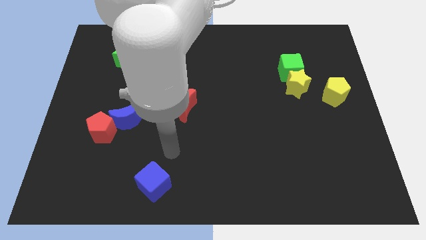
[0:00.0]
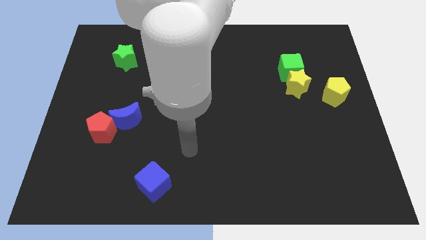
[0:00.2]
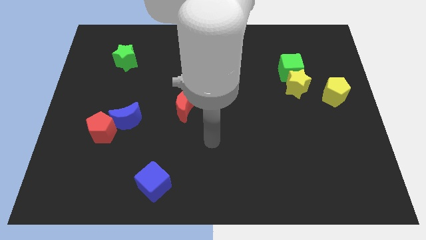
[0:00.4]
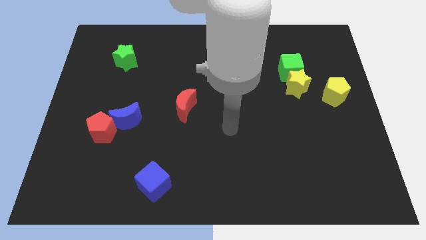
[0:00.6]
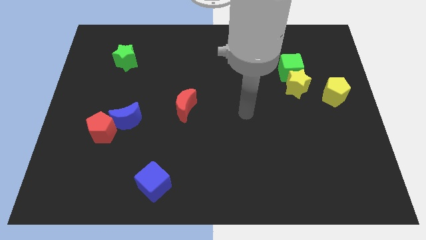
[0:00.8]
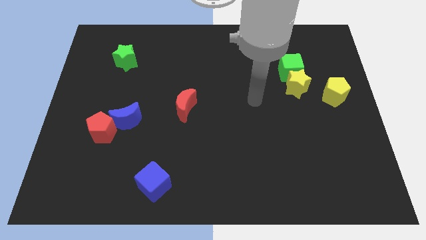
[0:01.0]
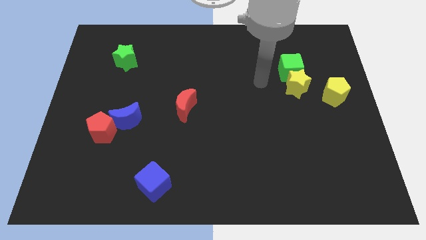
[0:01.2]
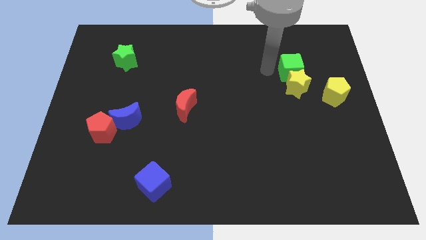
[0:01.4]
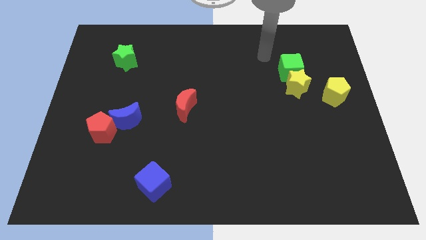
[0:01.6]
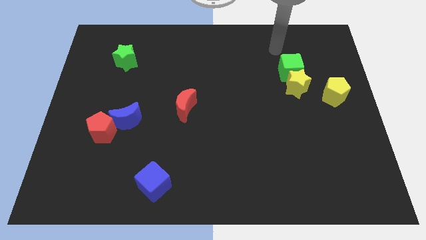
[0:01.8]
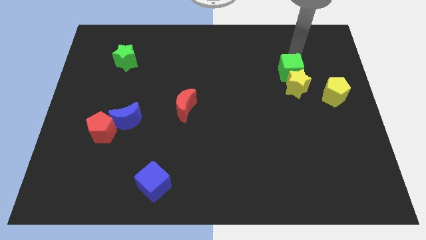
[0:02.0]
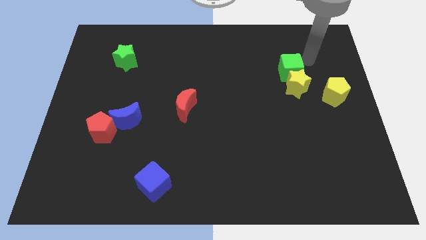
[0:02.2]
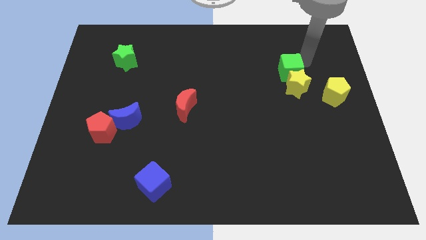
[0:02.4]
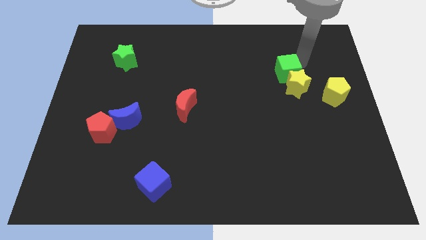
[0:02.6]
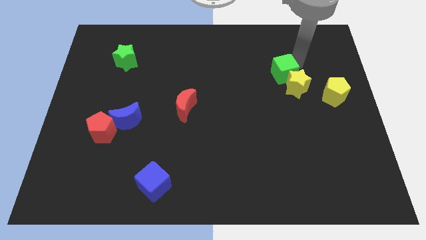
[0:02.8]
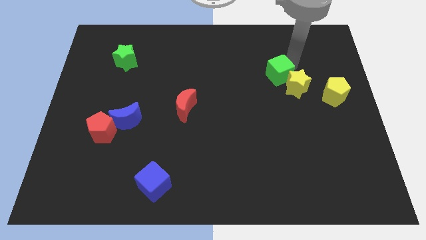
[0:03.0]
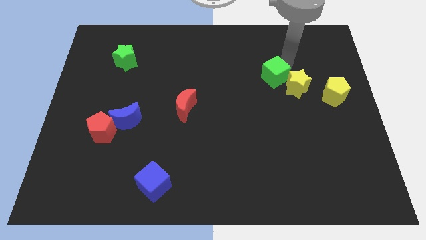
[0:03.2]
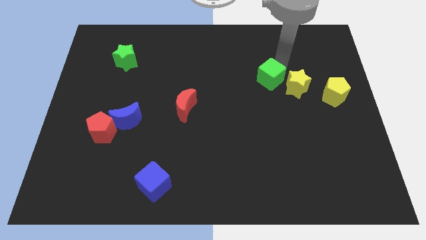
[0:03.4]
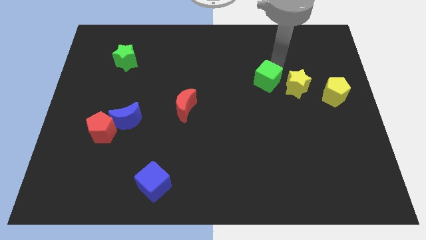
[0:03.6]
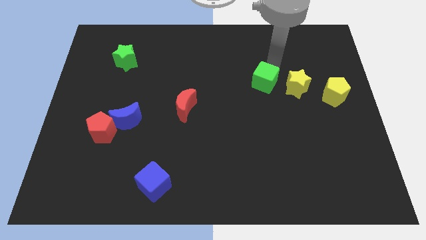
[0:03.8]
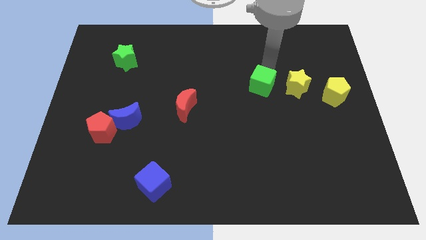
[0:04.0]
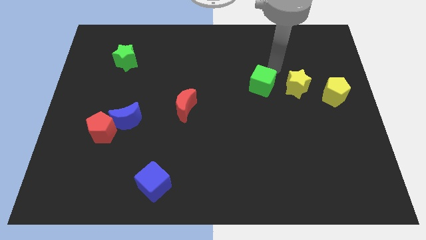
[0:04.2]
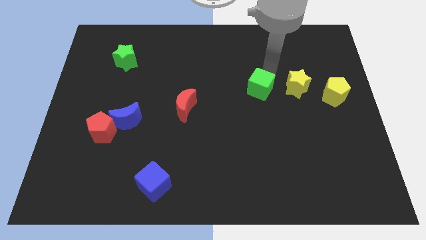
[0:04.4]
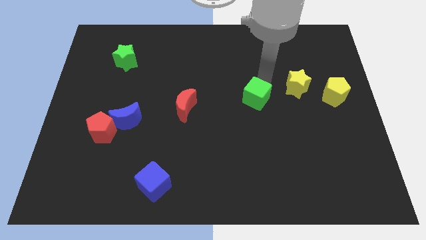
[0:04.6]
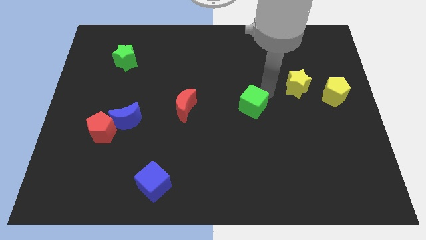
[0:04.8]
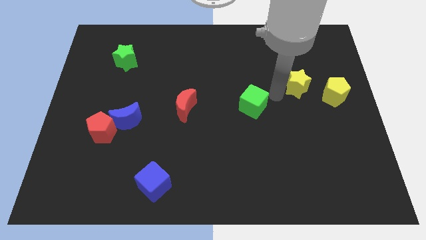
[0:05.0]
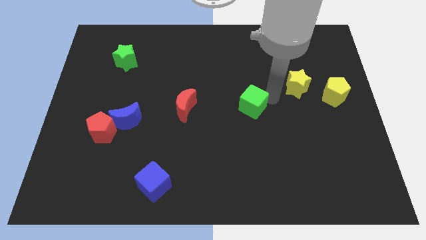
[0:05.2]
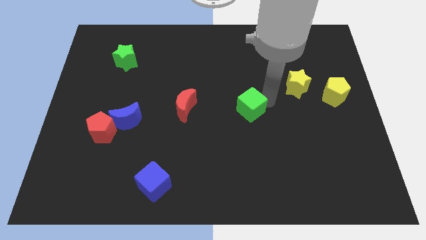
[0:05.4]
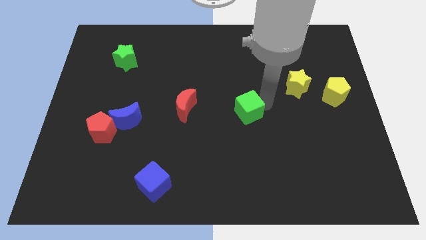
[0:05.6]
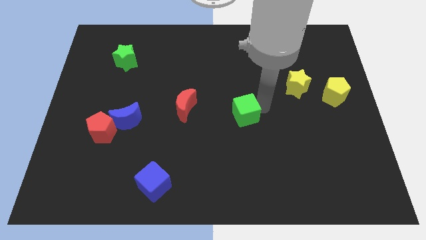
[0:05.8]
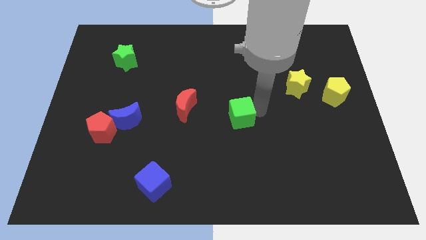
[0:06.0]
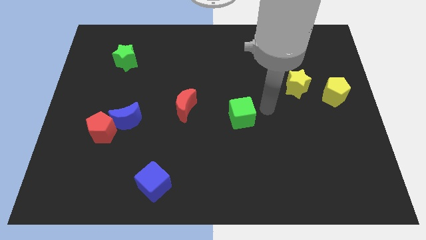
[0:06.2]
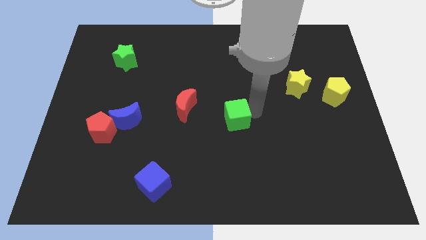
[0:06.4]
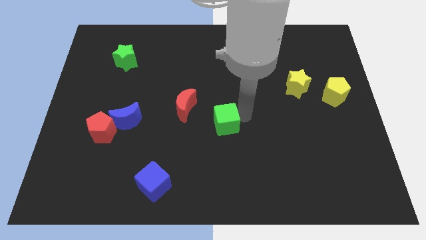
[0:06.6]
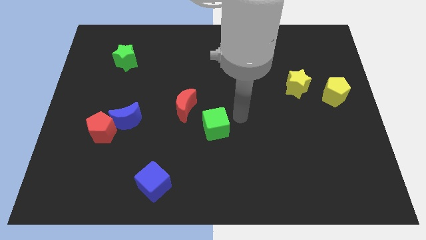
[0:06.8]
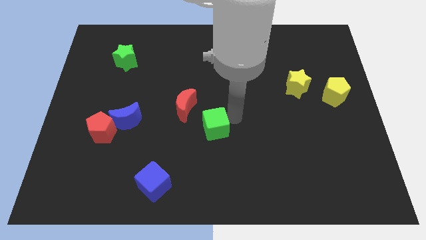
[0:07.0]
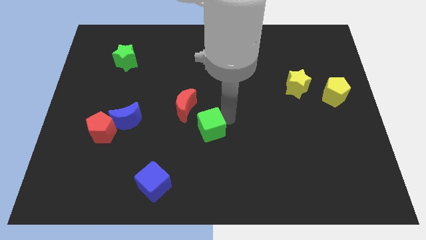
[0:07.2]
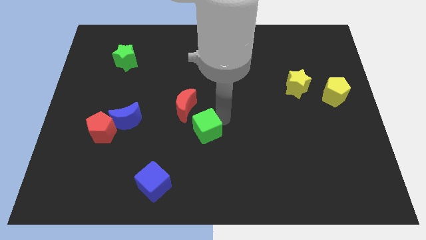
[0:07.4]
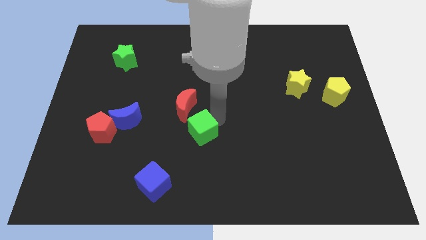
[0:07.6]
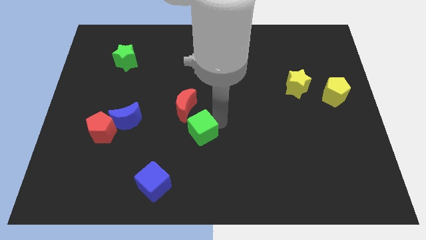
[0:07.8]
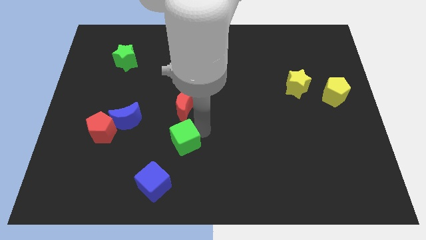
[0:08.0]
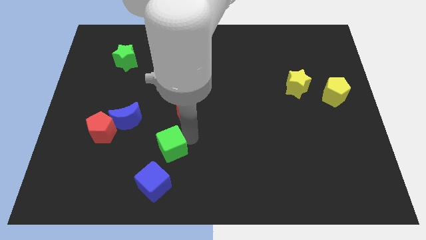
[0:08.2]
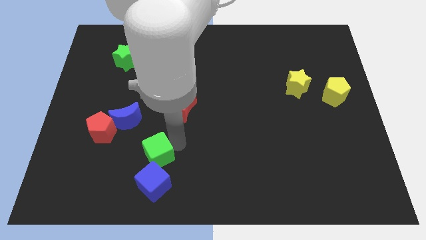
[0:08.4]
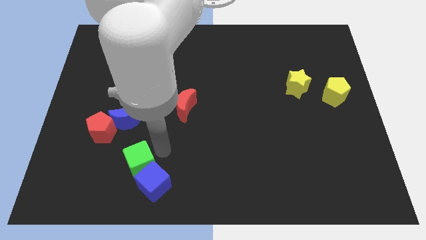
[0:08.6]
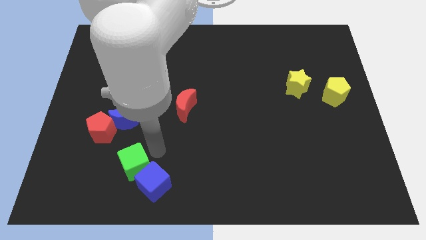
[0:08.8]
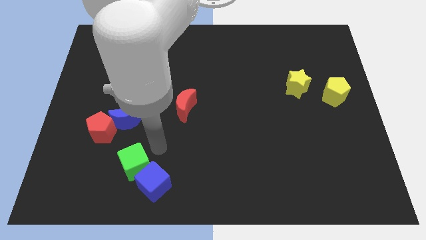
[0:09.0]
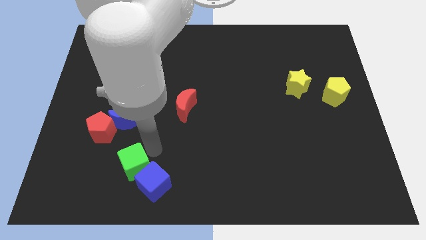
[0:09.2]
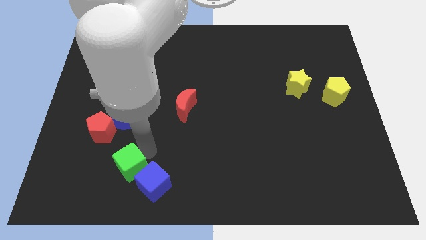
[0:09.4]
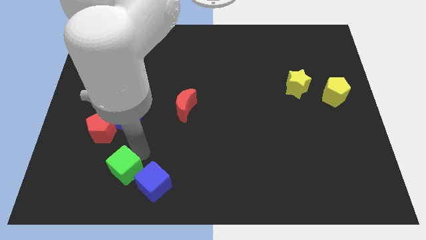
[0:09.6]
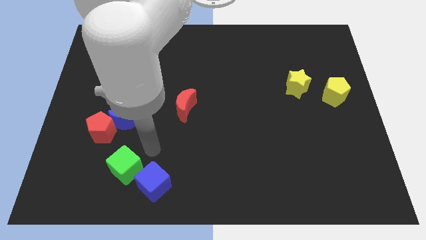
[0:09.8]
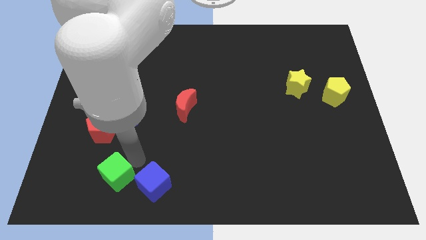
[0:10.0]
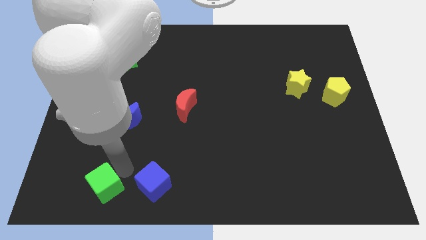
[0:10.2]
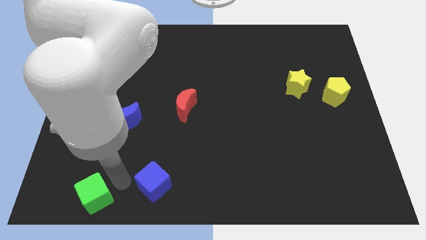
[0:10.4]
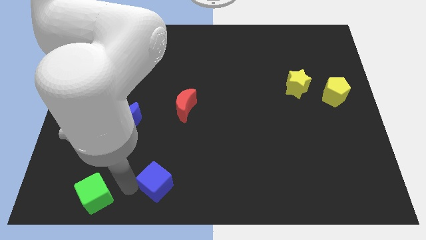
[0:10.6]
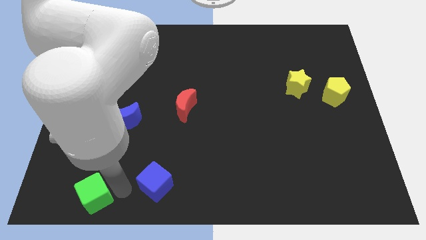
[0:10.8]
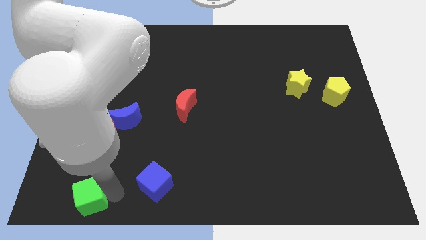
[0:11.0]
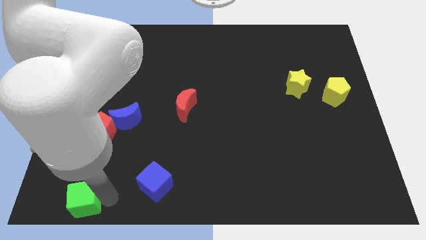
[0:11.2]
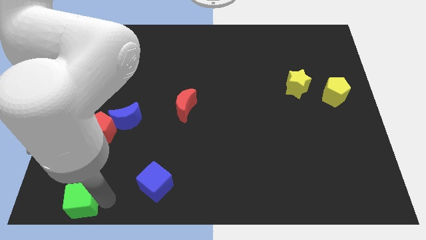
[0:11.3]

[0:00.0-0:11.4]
put the green cube to the bottom left of the board
